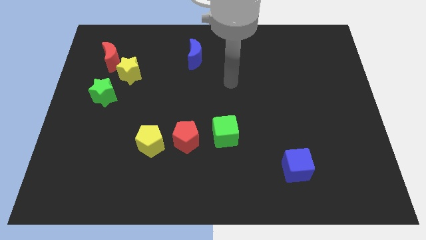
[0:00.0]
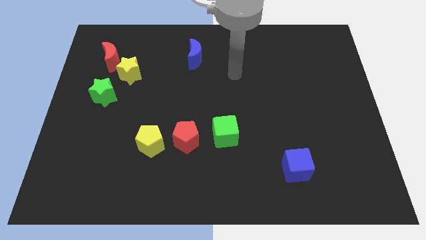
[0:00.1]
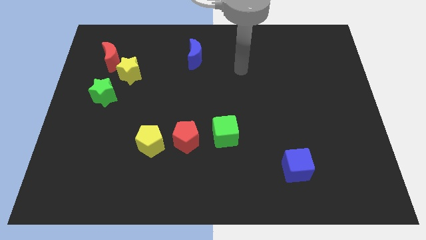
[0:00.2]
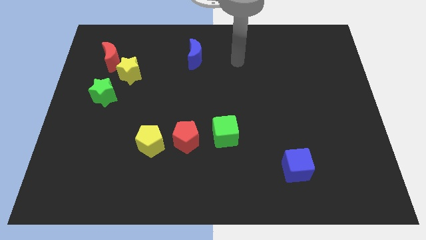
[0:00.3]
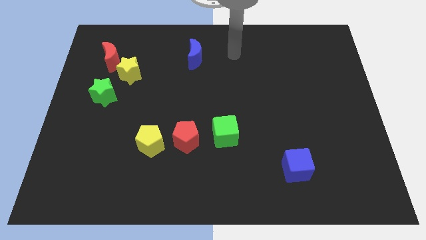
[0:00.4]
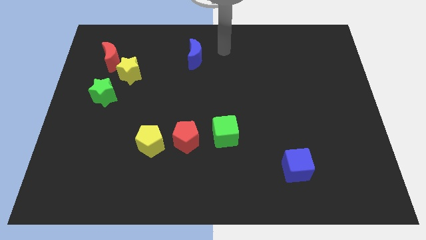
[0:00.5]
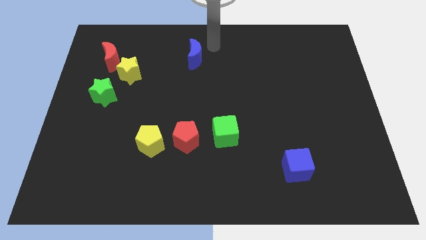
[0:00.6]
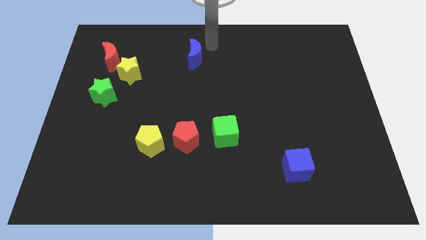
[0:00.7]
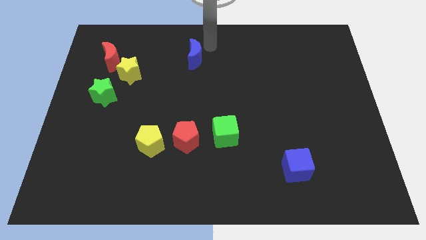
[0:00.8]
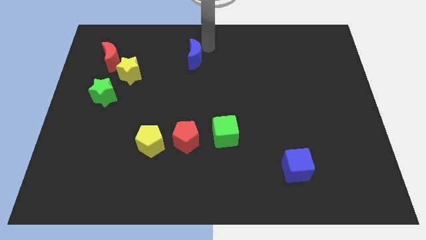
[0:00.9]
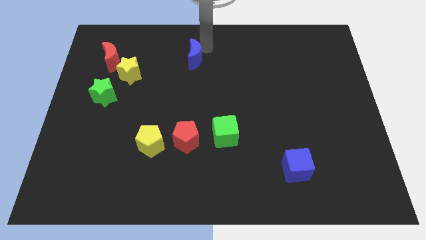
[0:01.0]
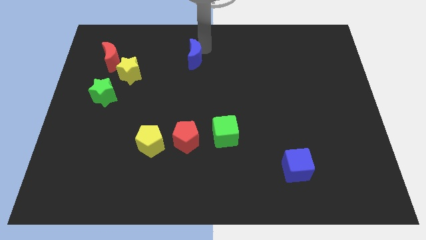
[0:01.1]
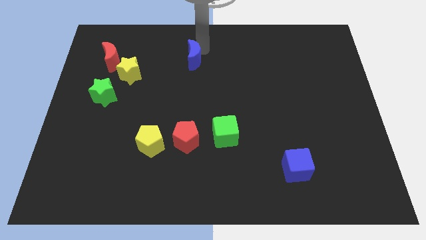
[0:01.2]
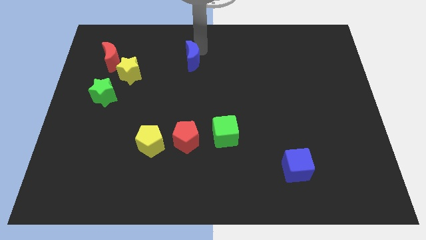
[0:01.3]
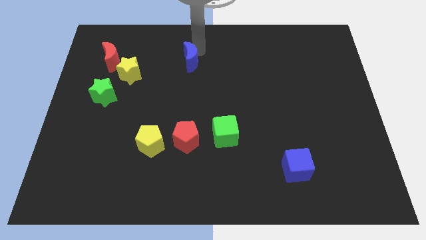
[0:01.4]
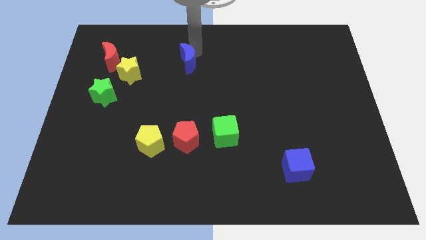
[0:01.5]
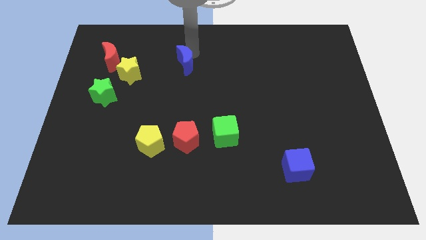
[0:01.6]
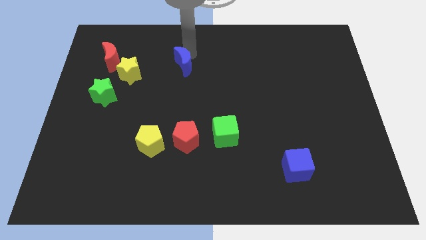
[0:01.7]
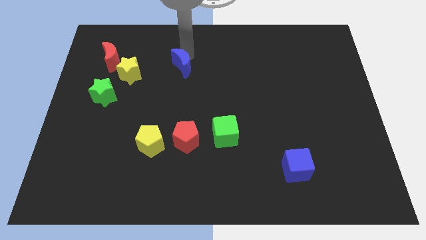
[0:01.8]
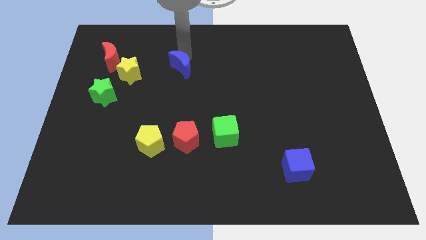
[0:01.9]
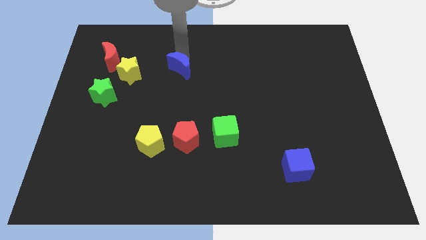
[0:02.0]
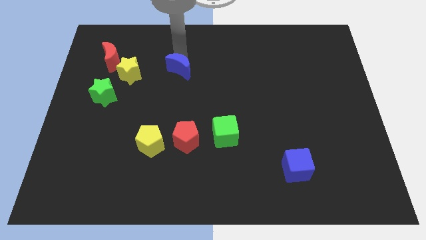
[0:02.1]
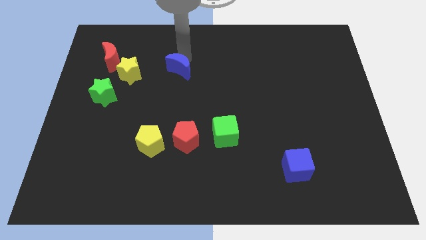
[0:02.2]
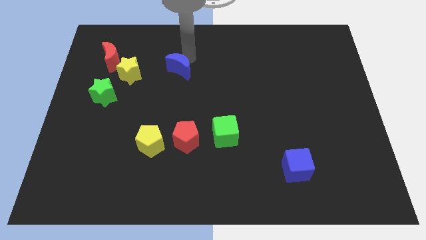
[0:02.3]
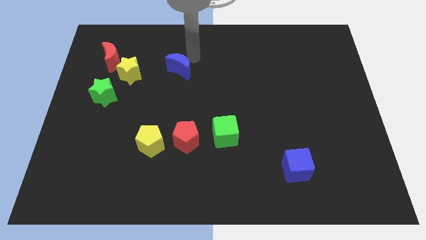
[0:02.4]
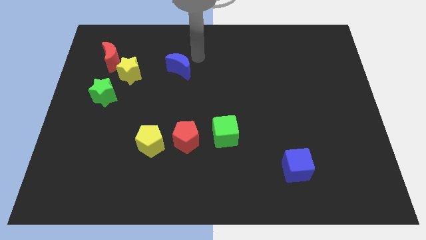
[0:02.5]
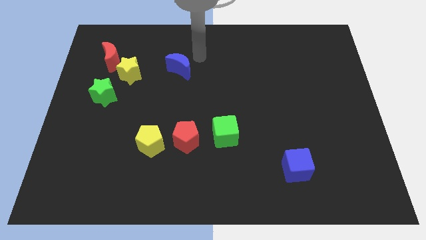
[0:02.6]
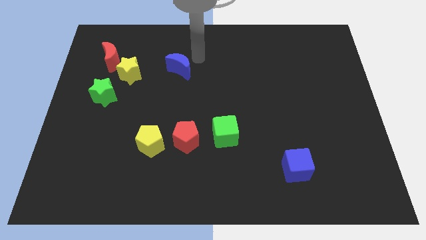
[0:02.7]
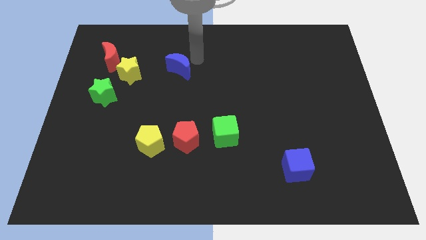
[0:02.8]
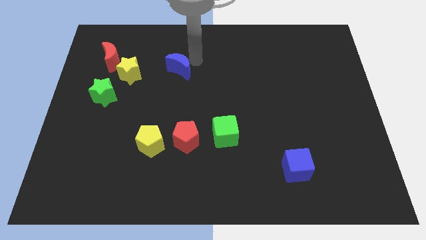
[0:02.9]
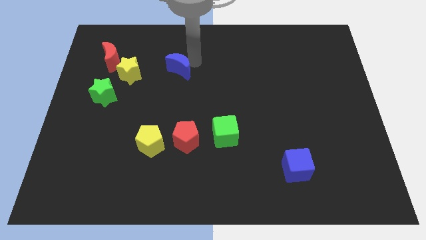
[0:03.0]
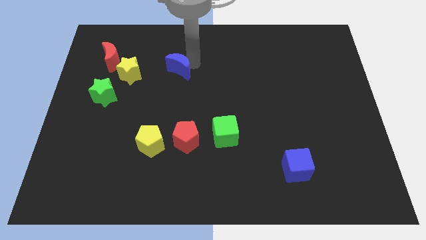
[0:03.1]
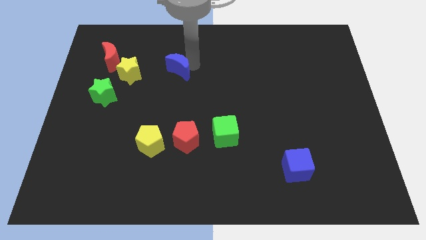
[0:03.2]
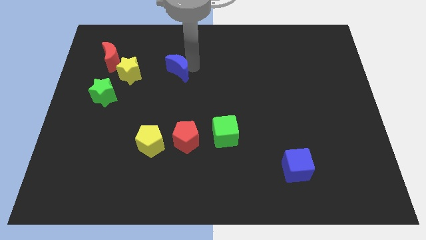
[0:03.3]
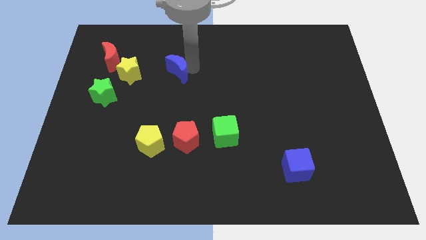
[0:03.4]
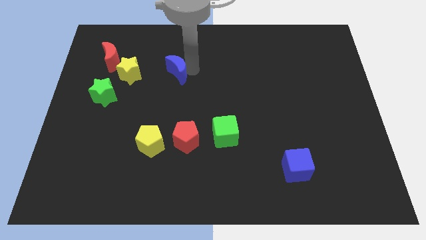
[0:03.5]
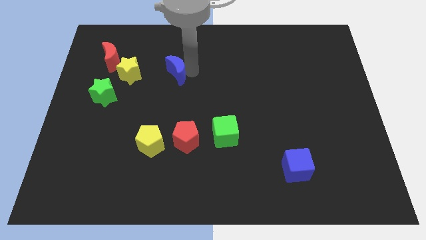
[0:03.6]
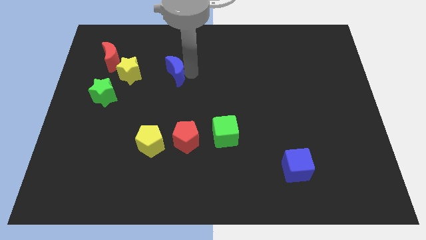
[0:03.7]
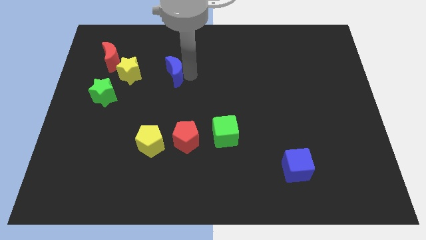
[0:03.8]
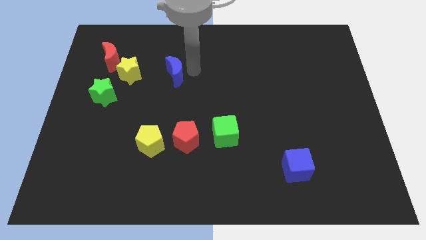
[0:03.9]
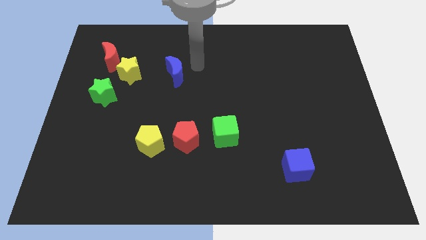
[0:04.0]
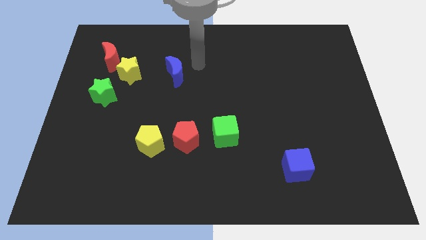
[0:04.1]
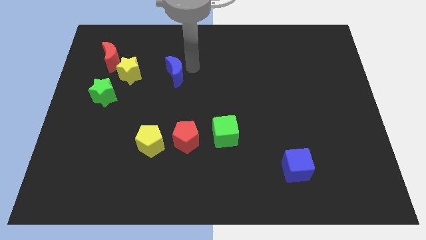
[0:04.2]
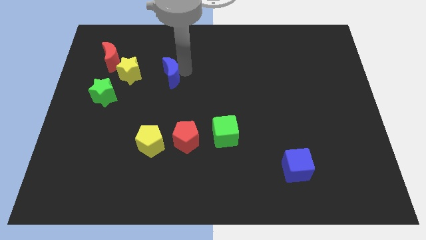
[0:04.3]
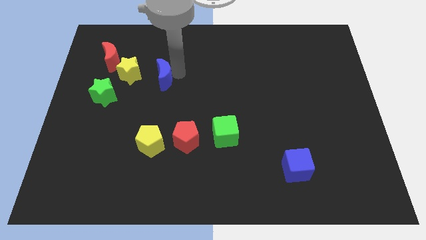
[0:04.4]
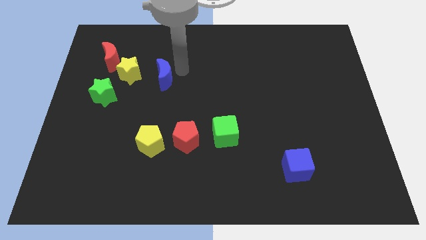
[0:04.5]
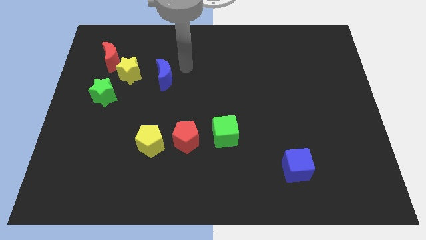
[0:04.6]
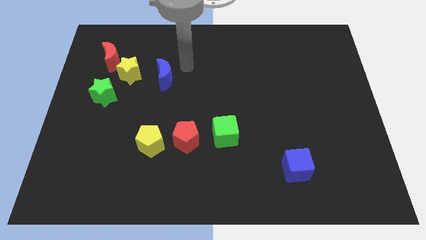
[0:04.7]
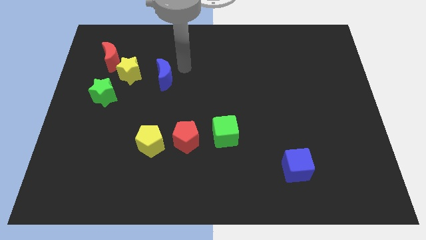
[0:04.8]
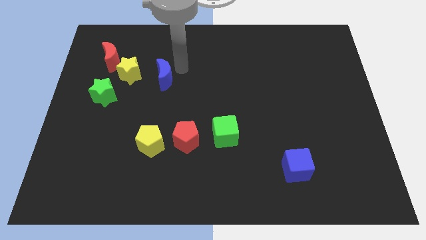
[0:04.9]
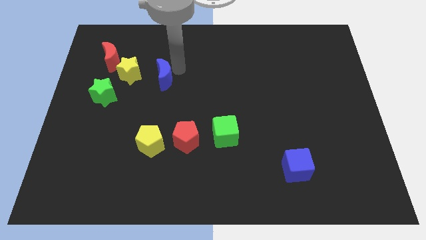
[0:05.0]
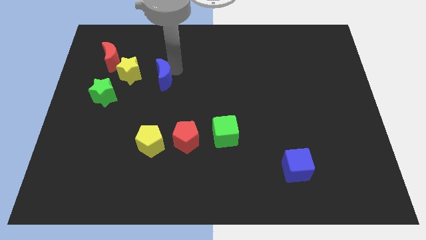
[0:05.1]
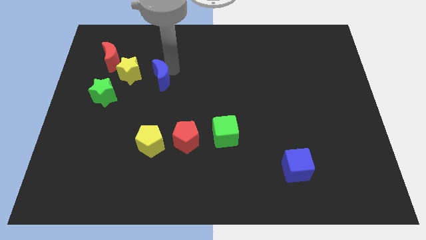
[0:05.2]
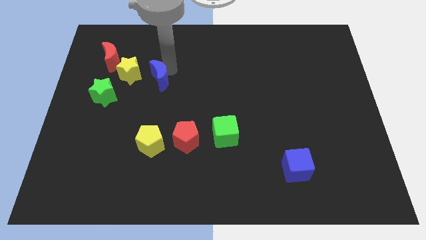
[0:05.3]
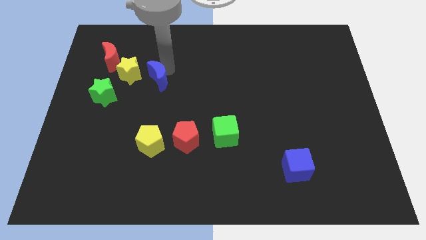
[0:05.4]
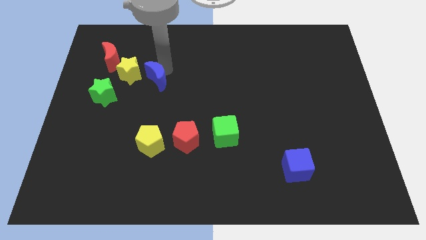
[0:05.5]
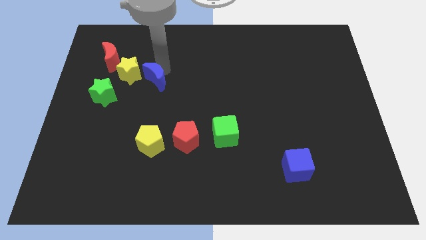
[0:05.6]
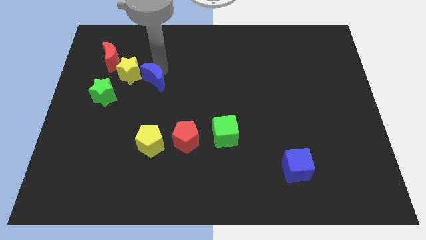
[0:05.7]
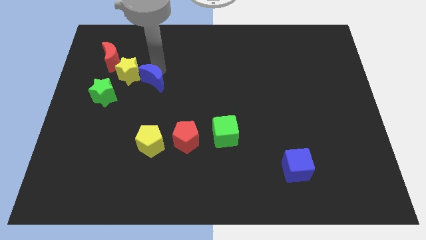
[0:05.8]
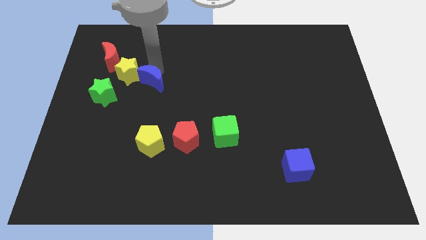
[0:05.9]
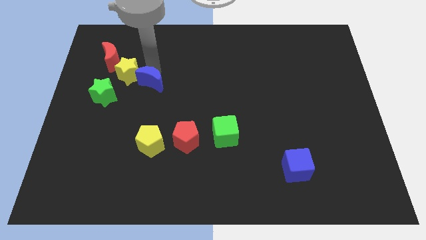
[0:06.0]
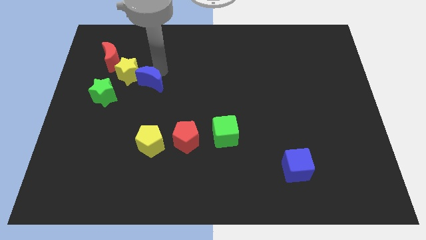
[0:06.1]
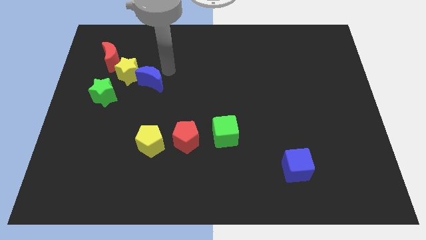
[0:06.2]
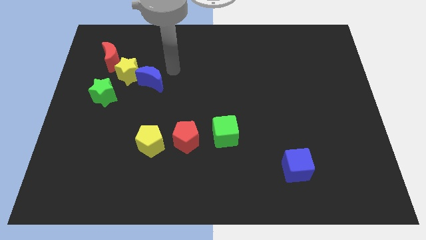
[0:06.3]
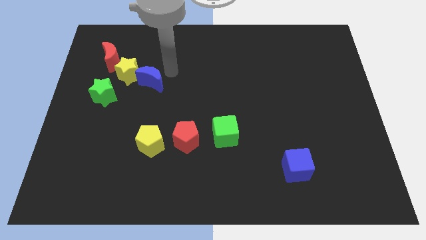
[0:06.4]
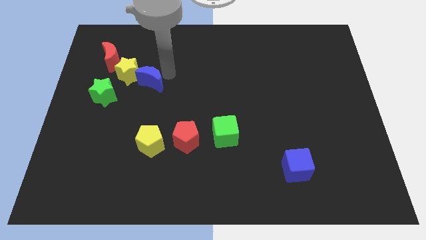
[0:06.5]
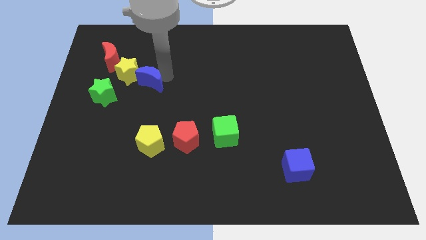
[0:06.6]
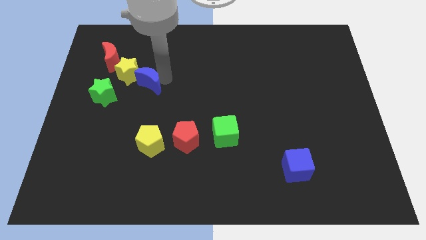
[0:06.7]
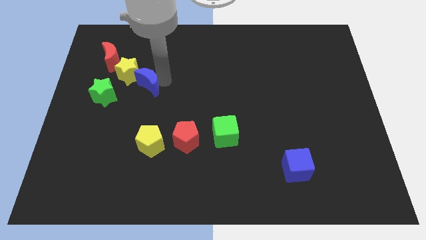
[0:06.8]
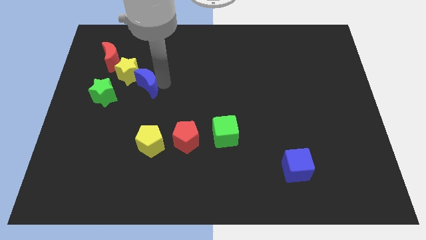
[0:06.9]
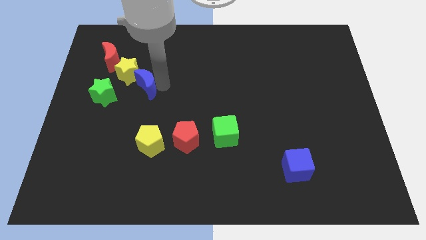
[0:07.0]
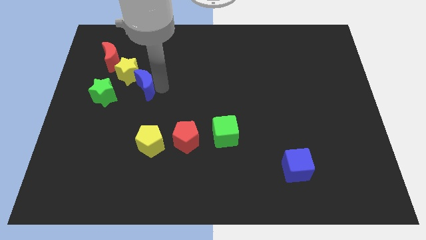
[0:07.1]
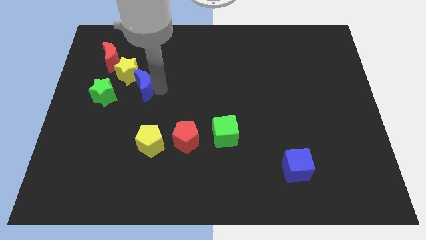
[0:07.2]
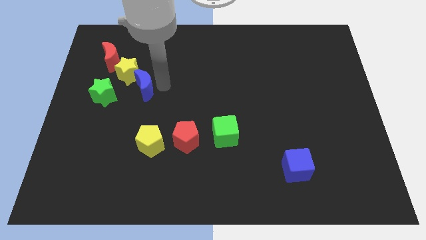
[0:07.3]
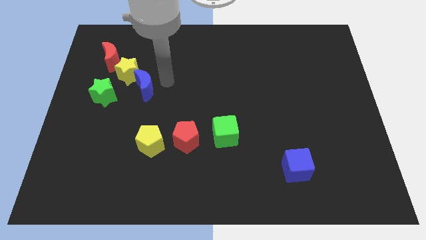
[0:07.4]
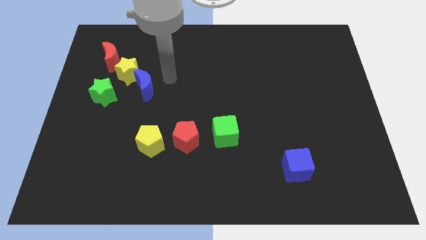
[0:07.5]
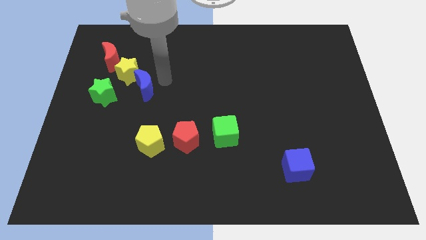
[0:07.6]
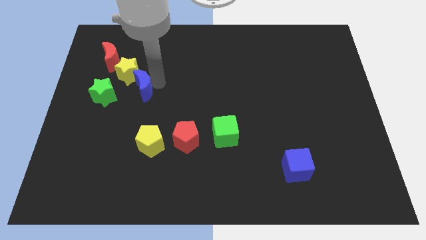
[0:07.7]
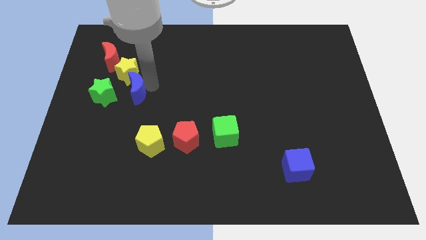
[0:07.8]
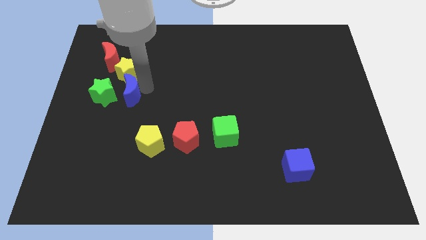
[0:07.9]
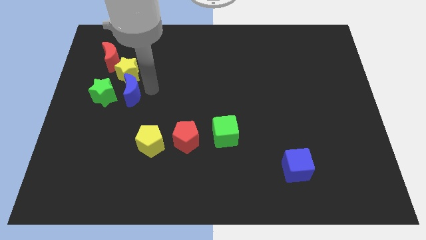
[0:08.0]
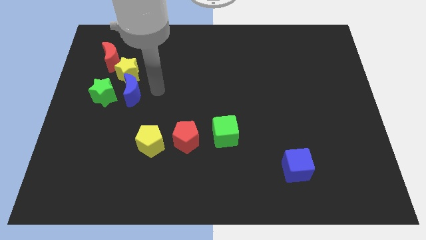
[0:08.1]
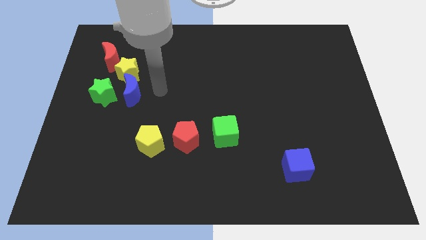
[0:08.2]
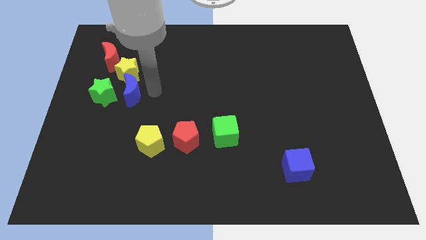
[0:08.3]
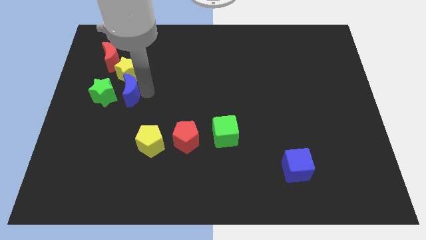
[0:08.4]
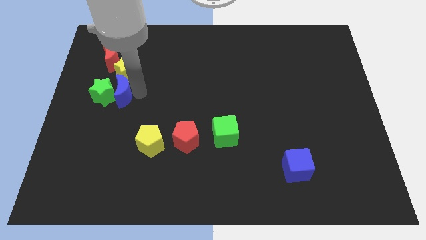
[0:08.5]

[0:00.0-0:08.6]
slide the blue moon to the green star
